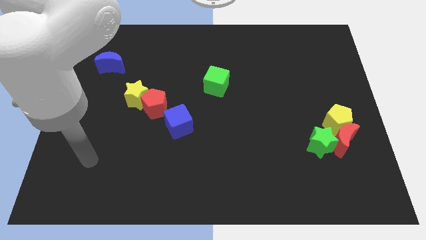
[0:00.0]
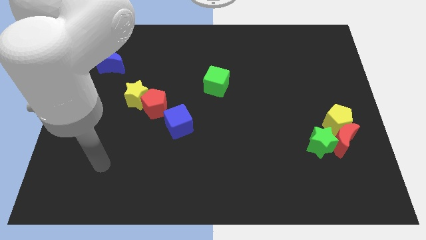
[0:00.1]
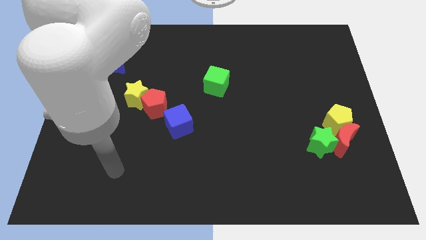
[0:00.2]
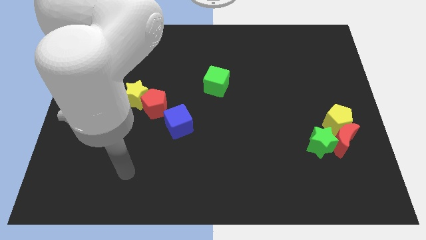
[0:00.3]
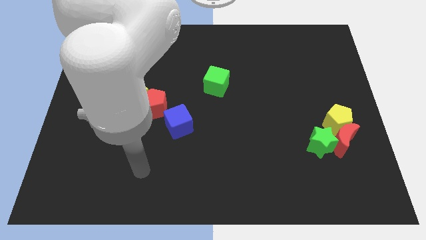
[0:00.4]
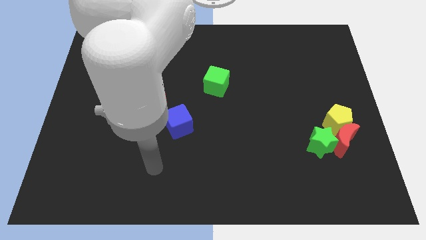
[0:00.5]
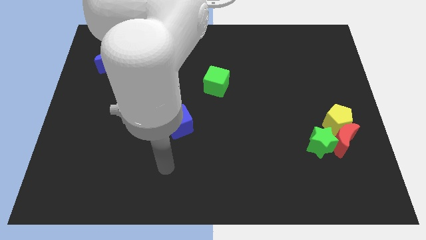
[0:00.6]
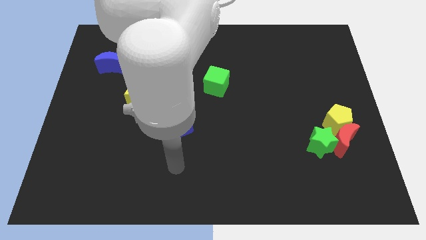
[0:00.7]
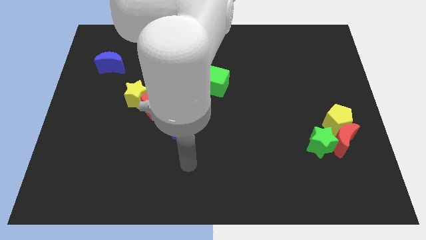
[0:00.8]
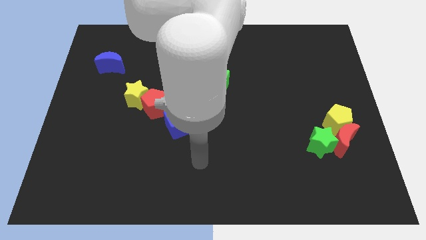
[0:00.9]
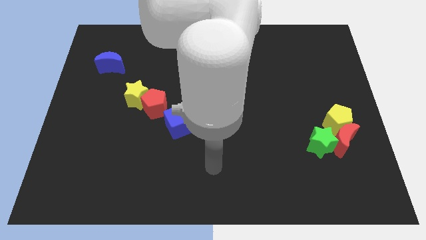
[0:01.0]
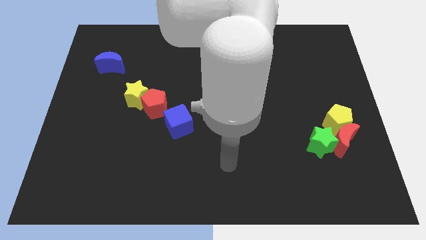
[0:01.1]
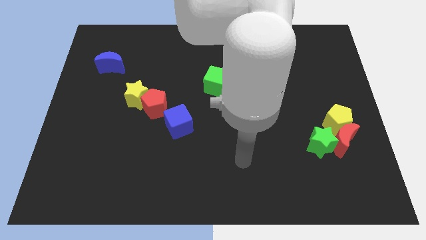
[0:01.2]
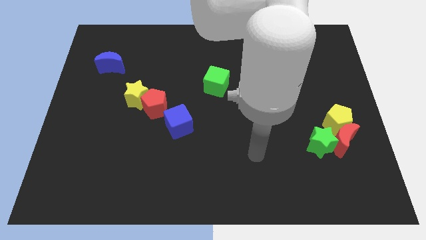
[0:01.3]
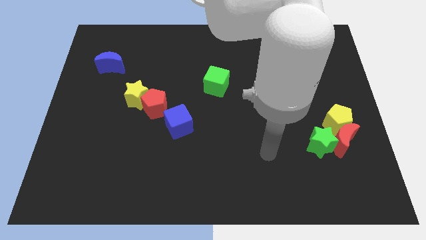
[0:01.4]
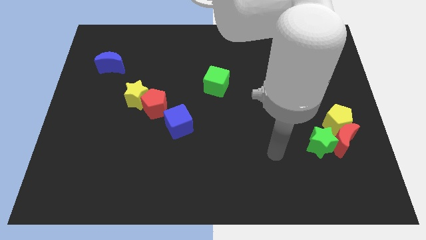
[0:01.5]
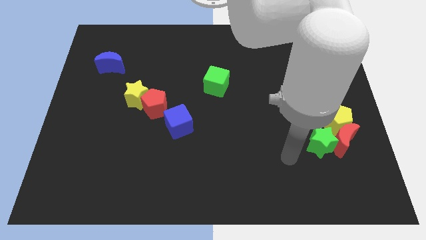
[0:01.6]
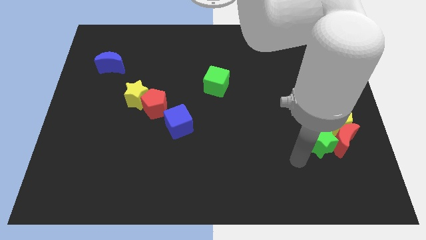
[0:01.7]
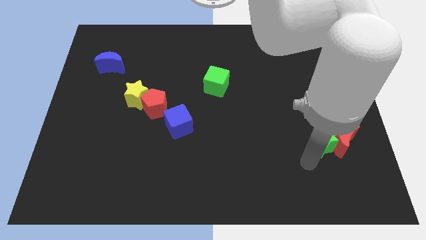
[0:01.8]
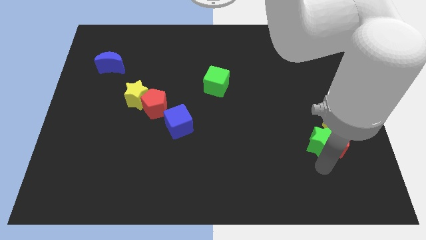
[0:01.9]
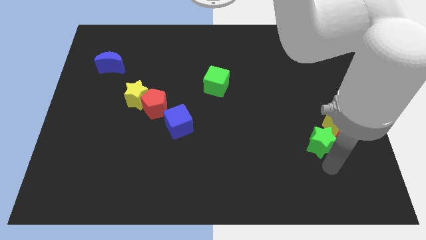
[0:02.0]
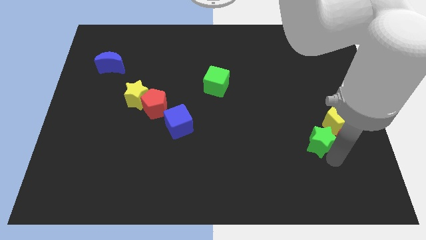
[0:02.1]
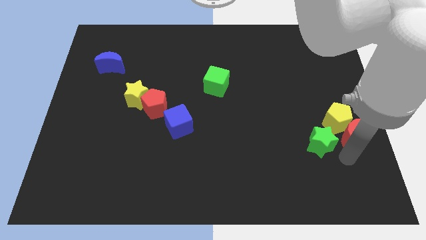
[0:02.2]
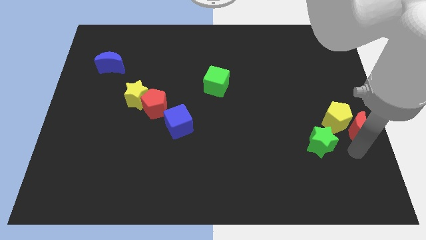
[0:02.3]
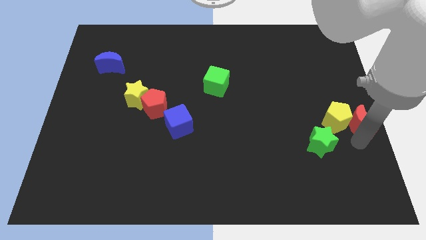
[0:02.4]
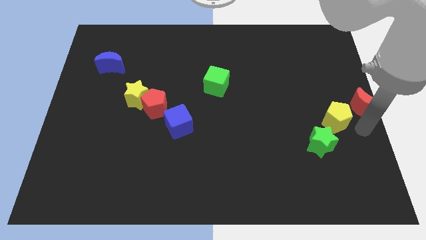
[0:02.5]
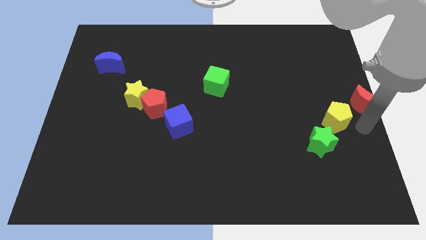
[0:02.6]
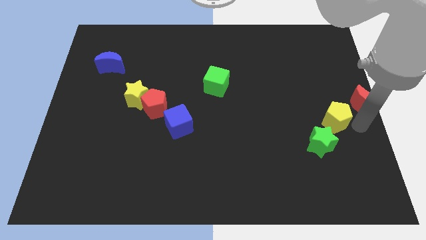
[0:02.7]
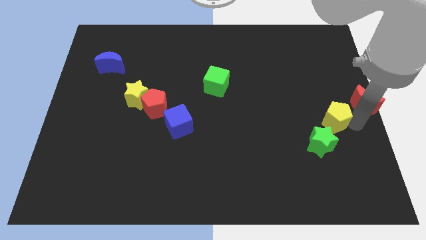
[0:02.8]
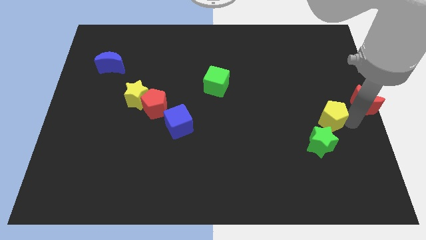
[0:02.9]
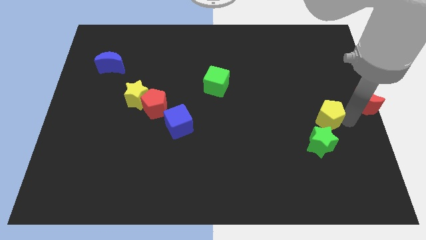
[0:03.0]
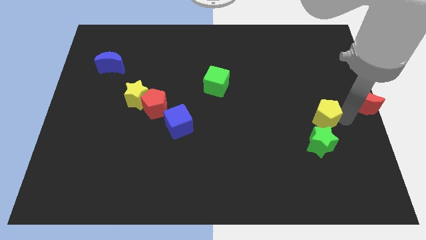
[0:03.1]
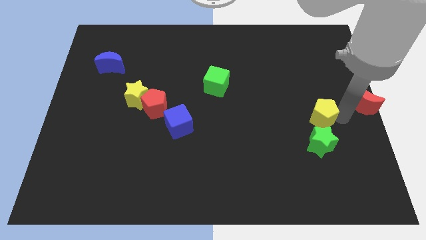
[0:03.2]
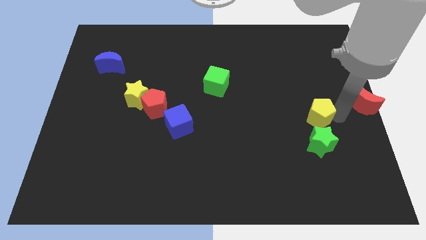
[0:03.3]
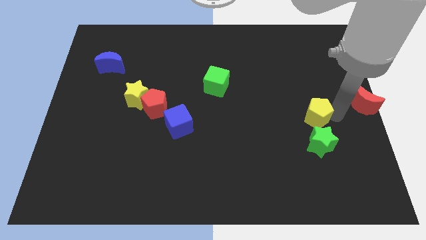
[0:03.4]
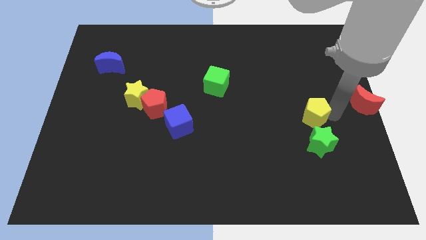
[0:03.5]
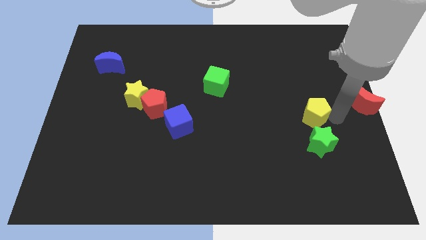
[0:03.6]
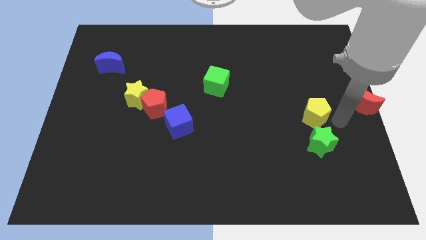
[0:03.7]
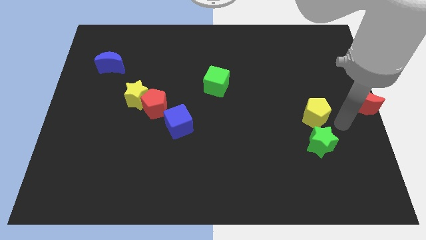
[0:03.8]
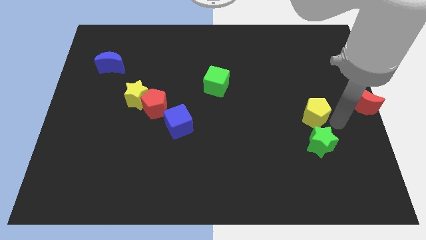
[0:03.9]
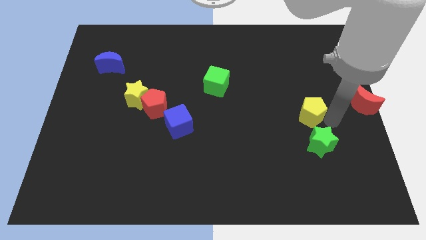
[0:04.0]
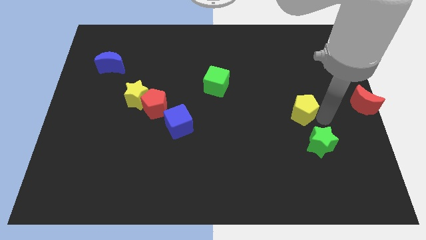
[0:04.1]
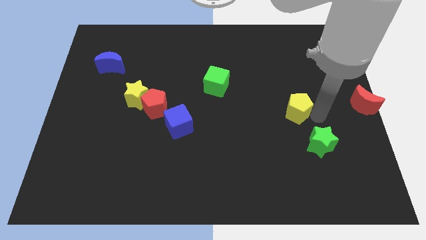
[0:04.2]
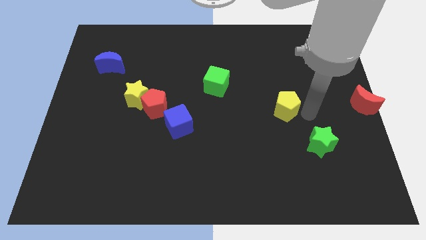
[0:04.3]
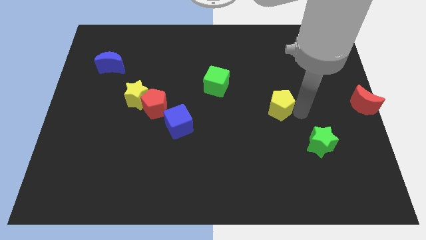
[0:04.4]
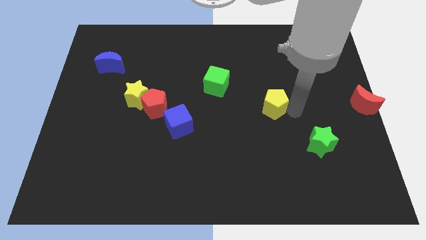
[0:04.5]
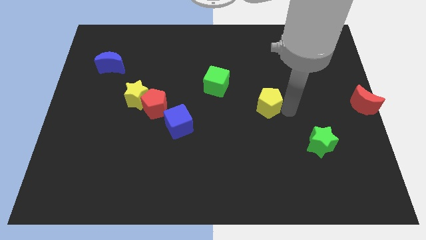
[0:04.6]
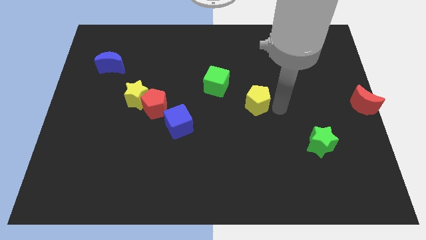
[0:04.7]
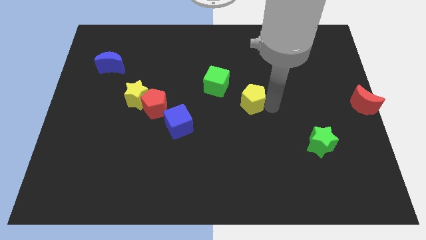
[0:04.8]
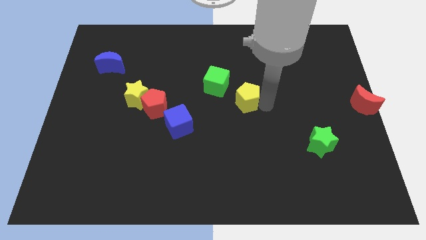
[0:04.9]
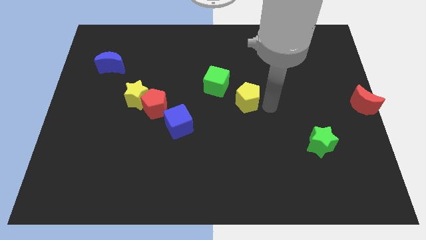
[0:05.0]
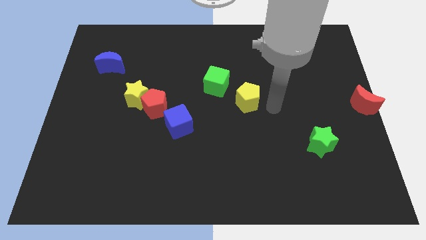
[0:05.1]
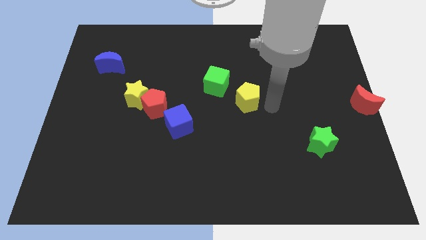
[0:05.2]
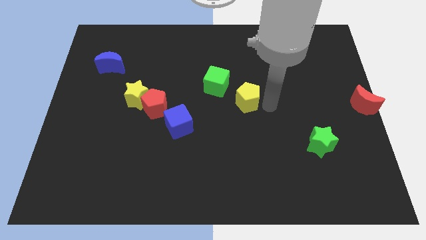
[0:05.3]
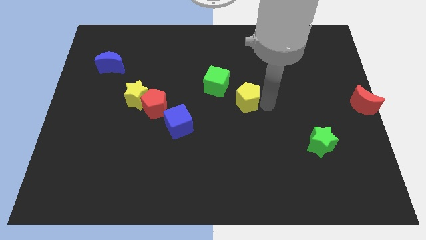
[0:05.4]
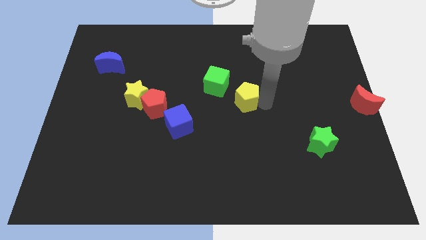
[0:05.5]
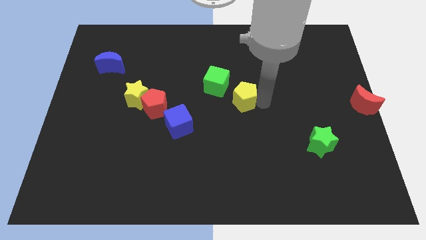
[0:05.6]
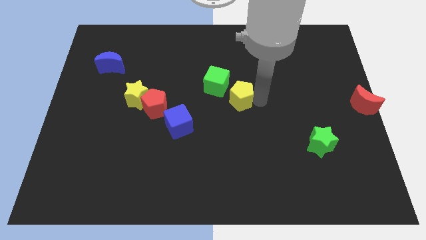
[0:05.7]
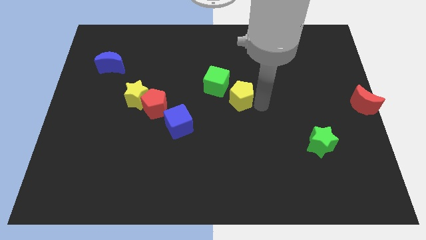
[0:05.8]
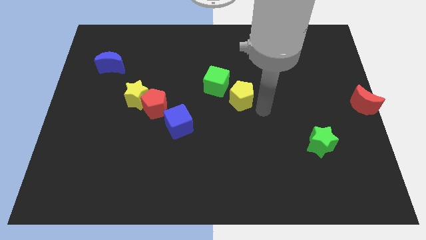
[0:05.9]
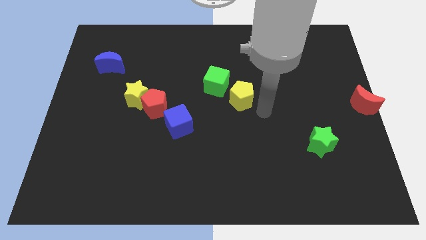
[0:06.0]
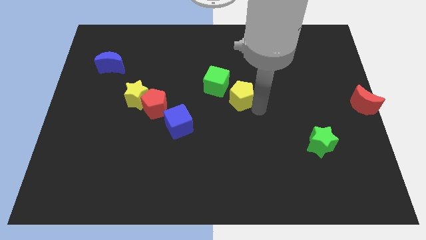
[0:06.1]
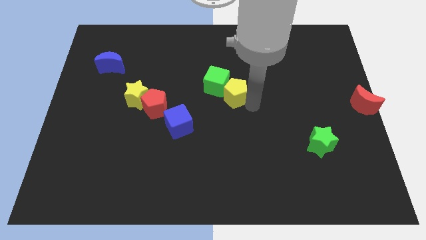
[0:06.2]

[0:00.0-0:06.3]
push the yellow pentagon next to the green cube
